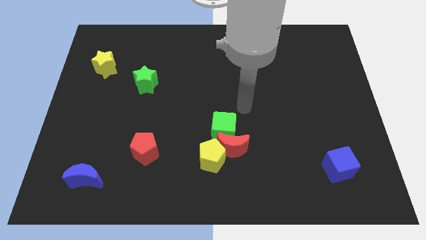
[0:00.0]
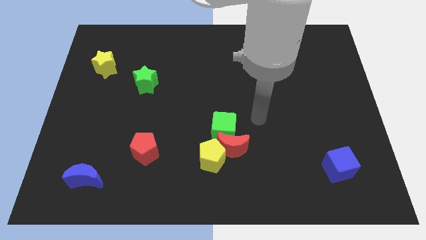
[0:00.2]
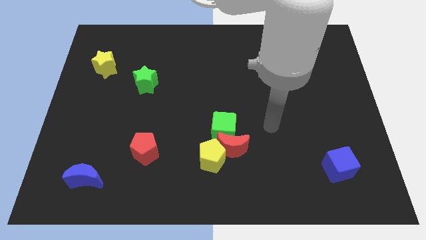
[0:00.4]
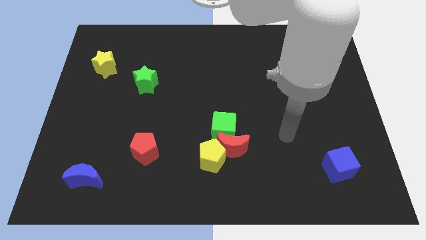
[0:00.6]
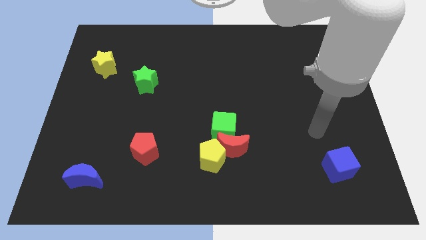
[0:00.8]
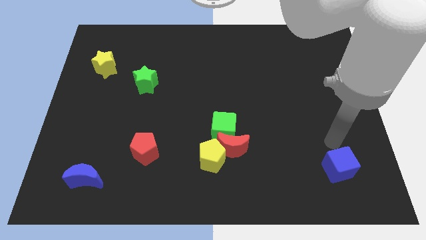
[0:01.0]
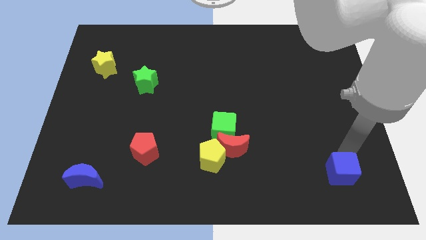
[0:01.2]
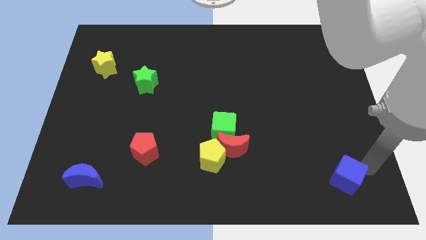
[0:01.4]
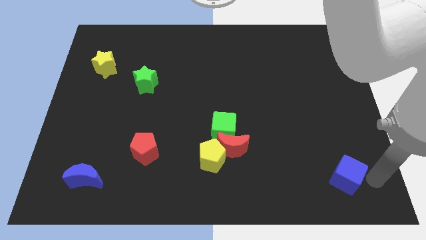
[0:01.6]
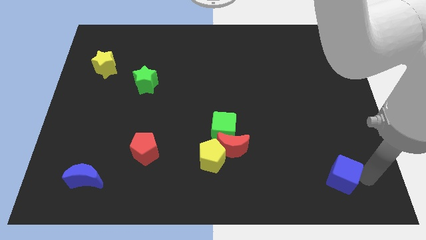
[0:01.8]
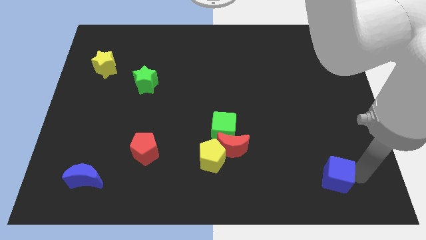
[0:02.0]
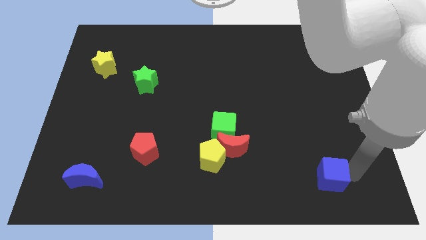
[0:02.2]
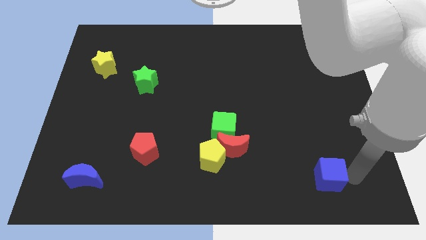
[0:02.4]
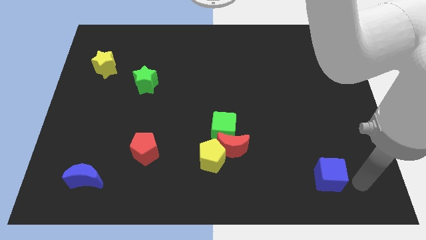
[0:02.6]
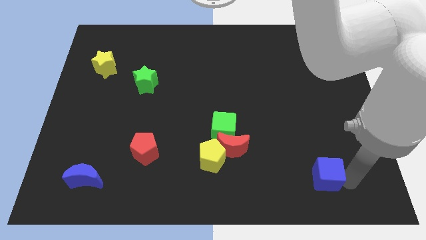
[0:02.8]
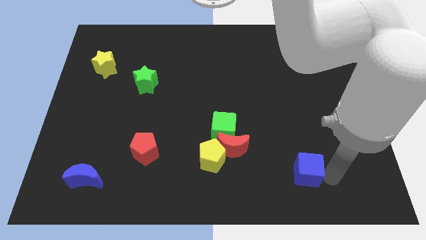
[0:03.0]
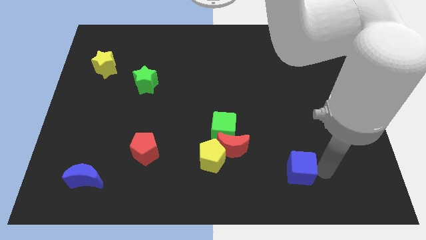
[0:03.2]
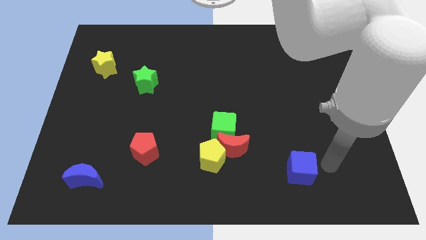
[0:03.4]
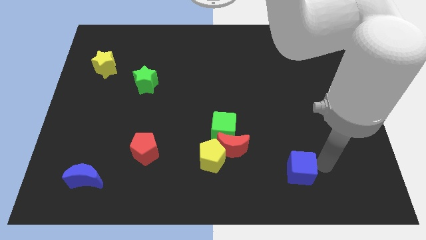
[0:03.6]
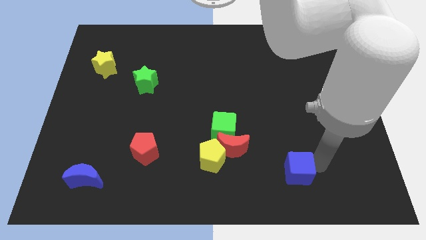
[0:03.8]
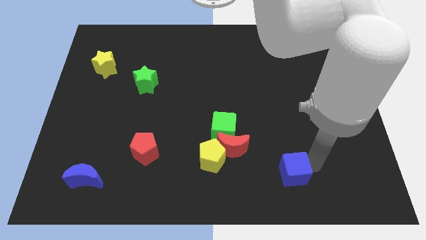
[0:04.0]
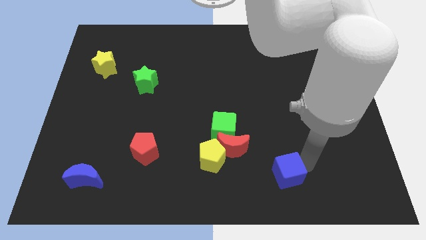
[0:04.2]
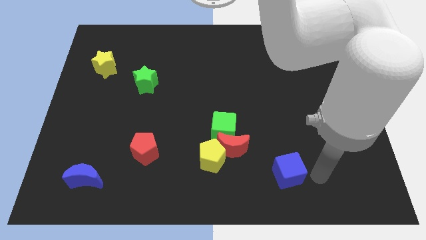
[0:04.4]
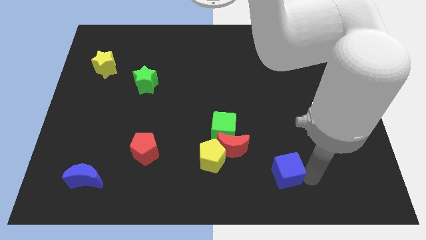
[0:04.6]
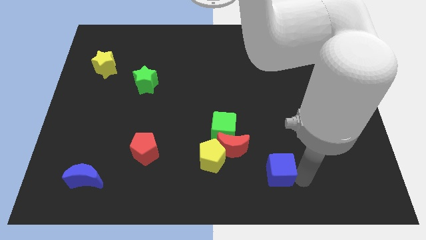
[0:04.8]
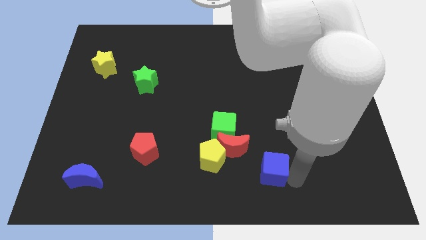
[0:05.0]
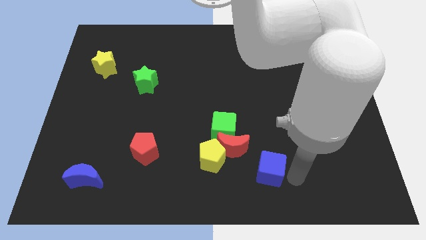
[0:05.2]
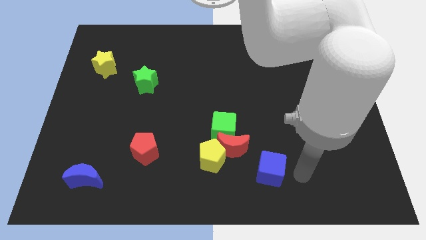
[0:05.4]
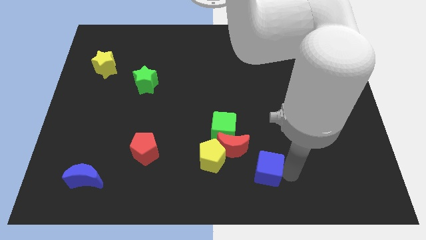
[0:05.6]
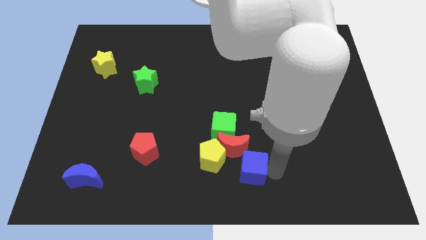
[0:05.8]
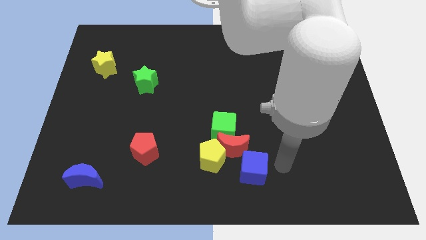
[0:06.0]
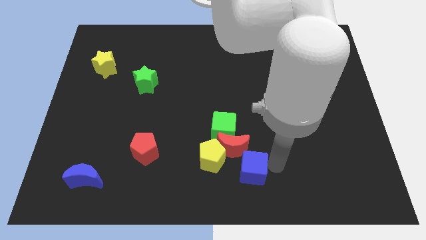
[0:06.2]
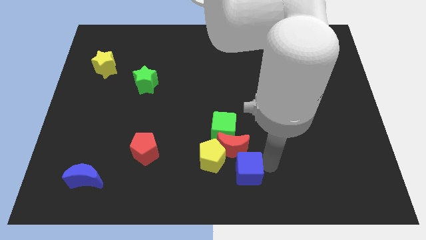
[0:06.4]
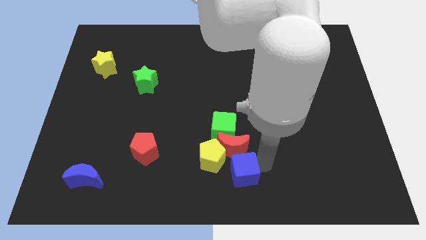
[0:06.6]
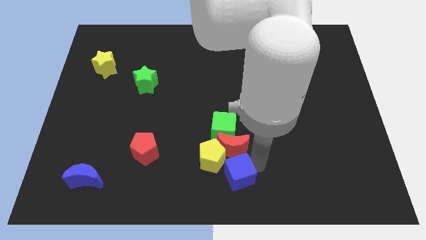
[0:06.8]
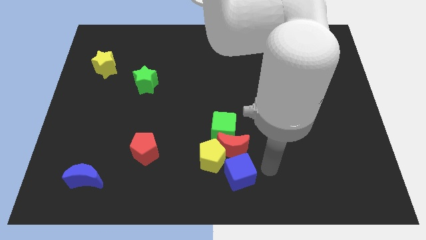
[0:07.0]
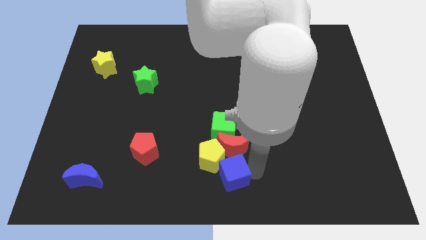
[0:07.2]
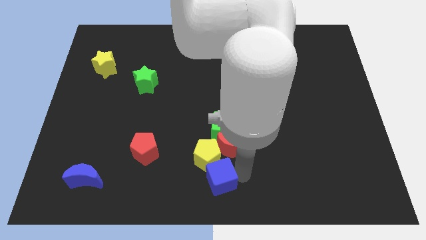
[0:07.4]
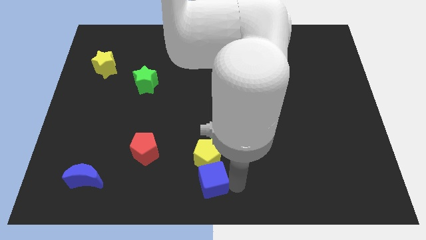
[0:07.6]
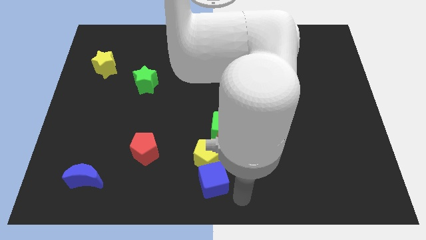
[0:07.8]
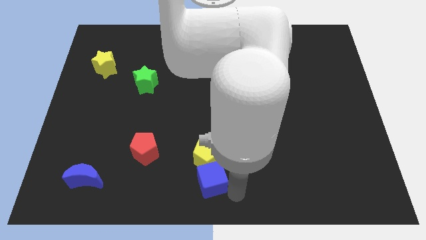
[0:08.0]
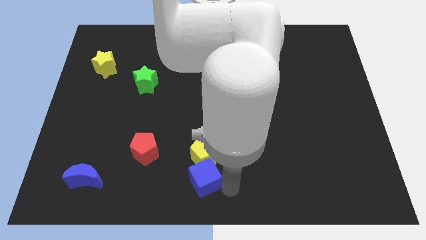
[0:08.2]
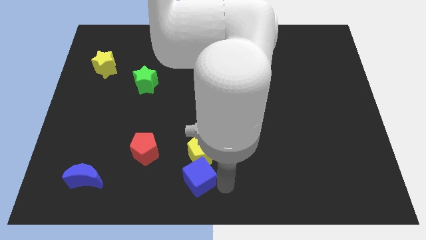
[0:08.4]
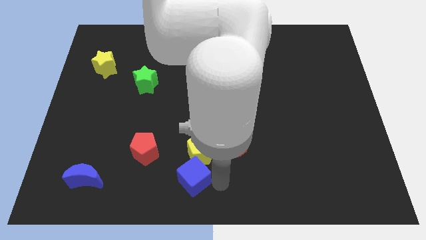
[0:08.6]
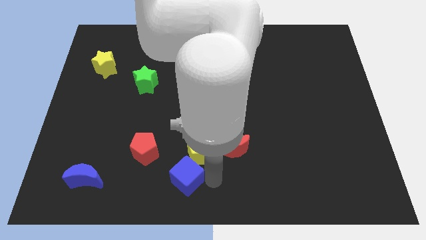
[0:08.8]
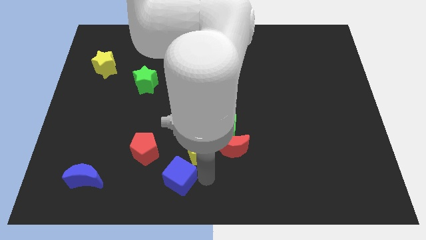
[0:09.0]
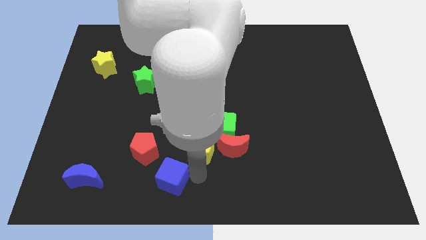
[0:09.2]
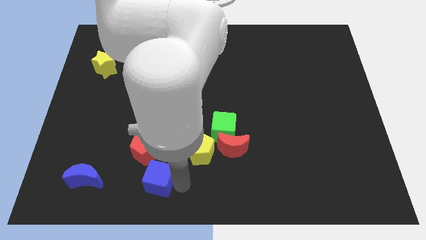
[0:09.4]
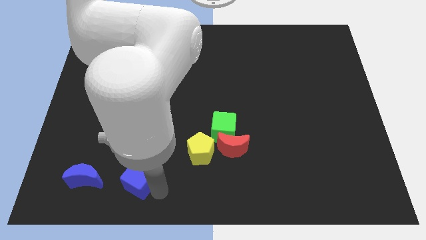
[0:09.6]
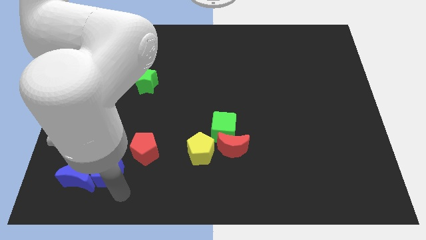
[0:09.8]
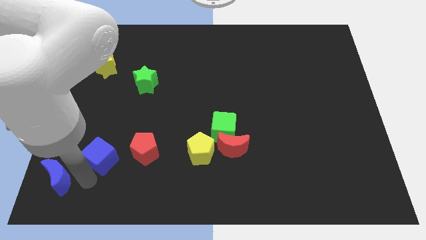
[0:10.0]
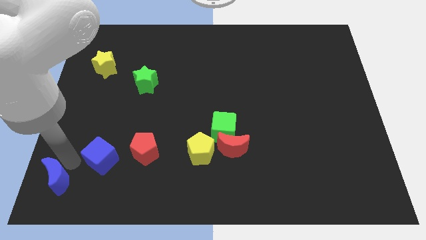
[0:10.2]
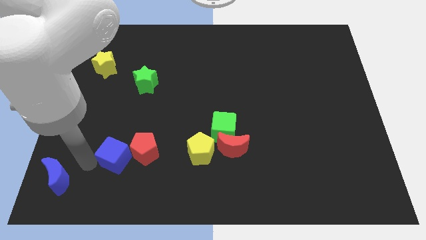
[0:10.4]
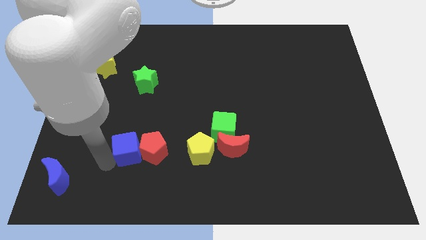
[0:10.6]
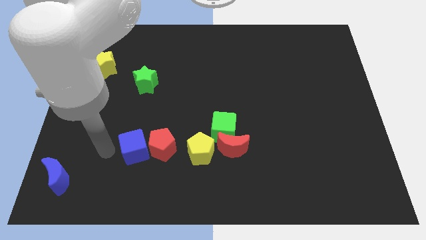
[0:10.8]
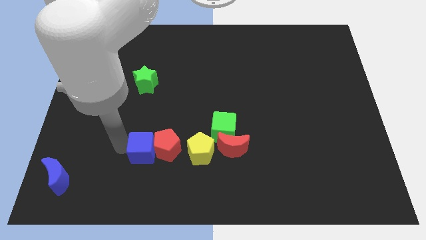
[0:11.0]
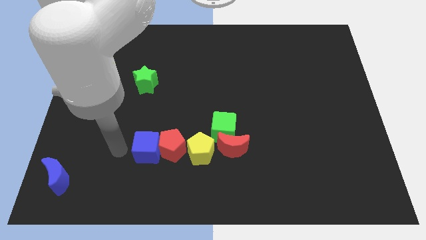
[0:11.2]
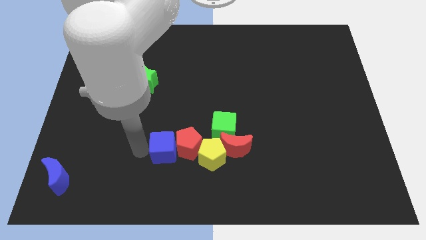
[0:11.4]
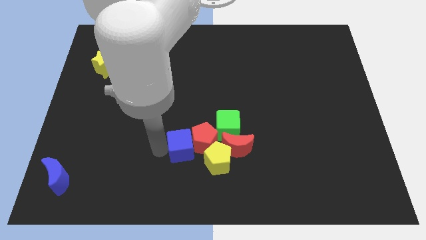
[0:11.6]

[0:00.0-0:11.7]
slide the blue cube to the bottom left of the green cube

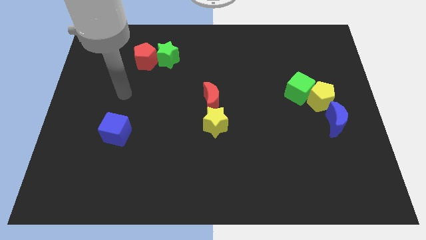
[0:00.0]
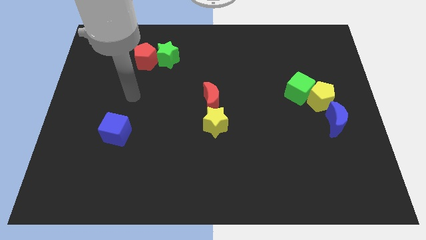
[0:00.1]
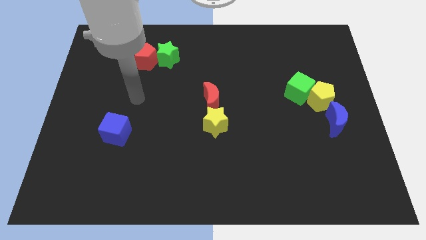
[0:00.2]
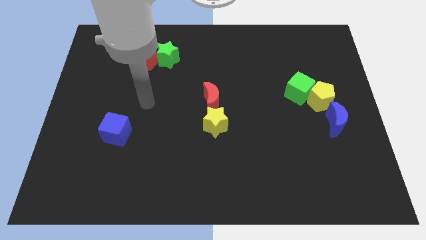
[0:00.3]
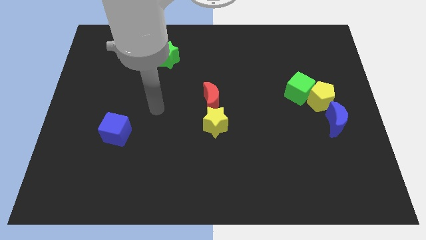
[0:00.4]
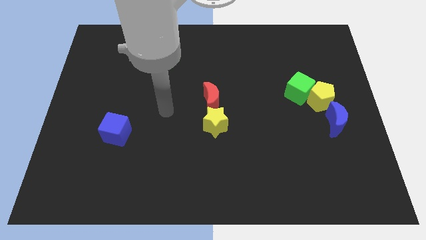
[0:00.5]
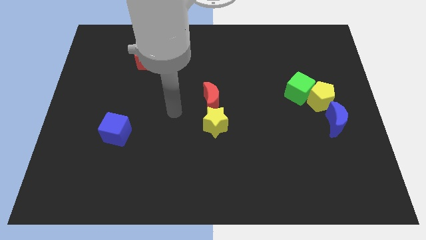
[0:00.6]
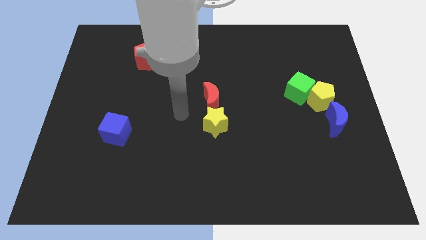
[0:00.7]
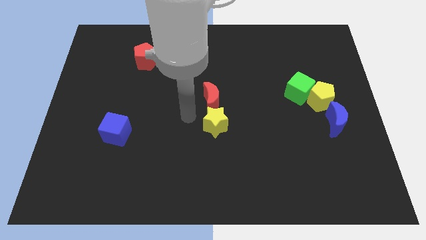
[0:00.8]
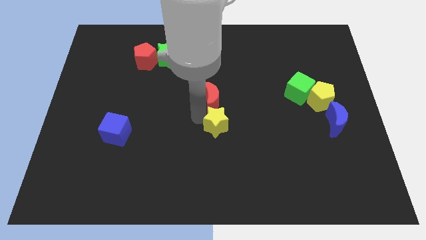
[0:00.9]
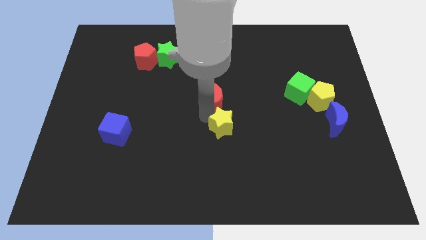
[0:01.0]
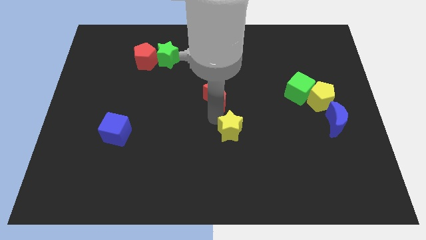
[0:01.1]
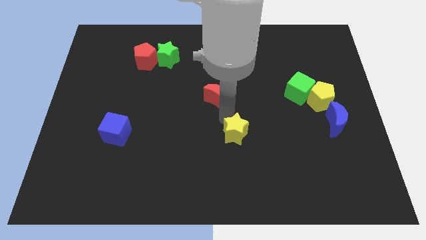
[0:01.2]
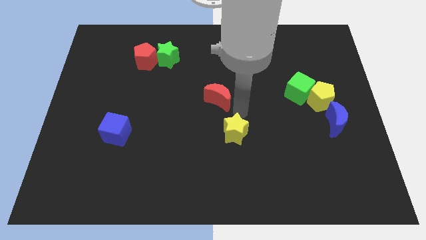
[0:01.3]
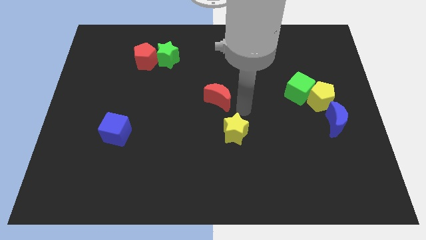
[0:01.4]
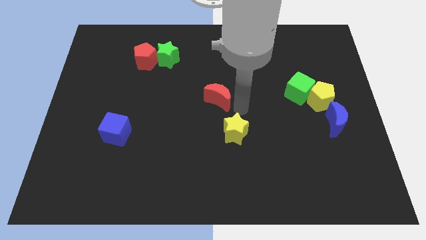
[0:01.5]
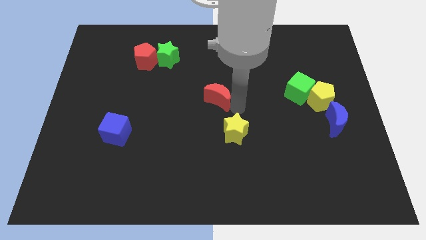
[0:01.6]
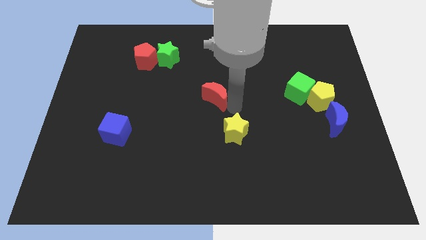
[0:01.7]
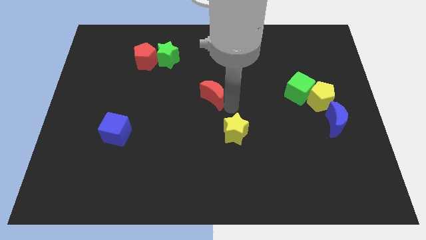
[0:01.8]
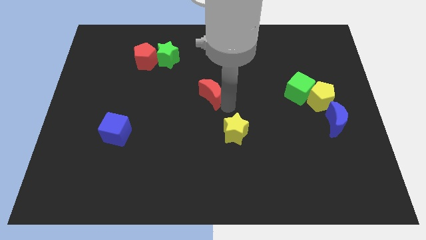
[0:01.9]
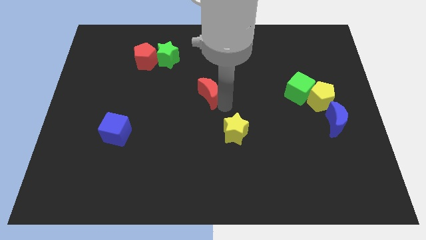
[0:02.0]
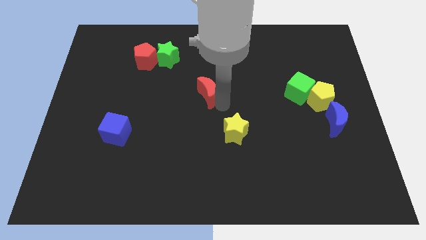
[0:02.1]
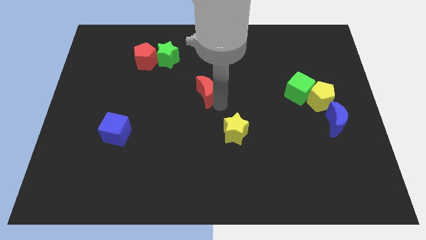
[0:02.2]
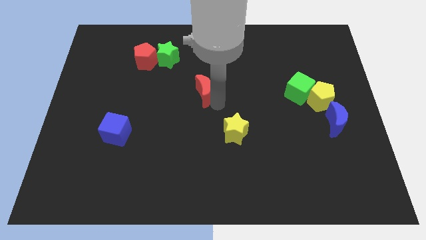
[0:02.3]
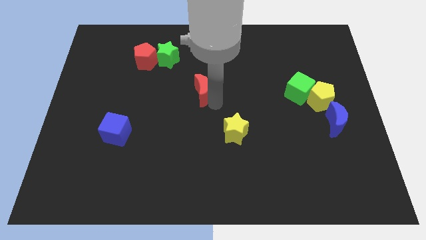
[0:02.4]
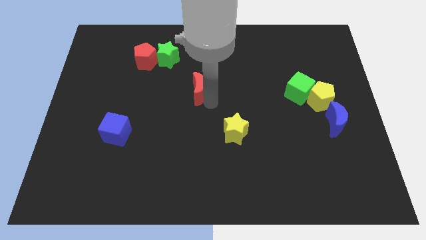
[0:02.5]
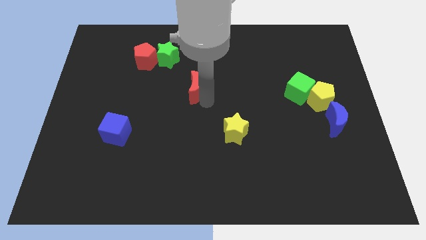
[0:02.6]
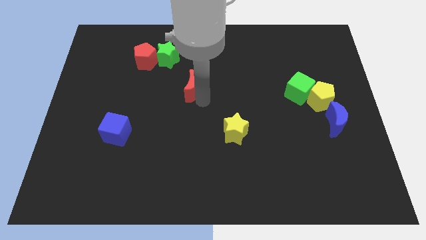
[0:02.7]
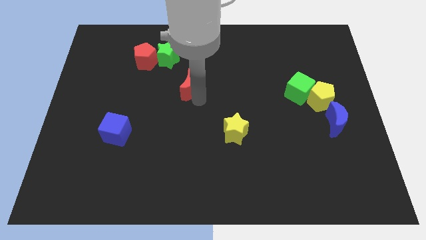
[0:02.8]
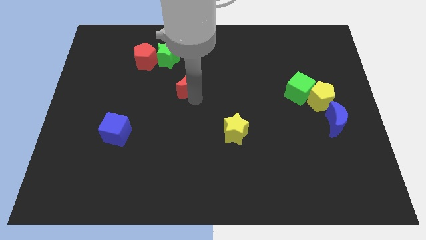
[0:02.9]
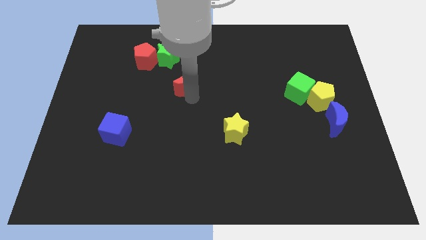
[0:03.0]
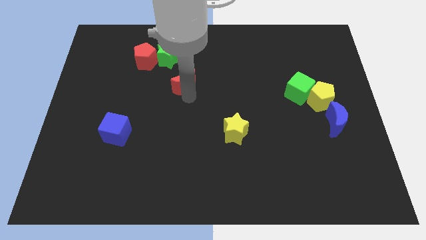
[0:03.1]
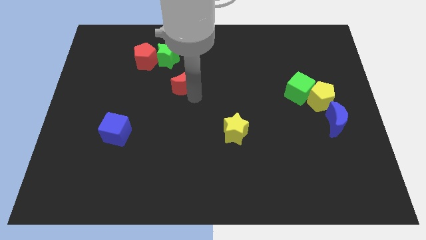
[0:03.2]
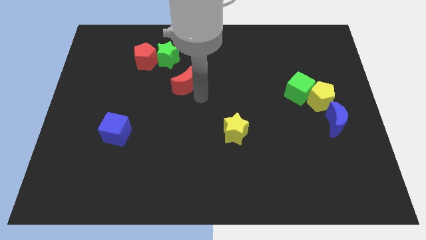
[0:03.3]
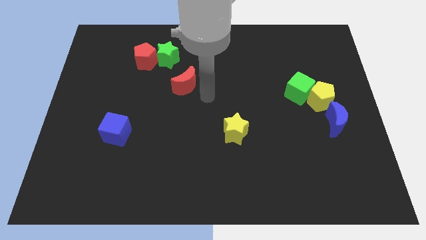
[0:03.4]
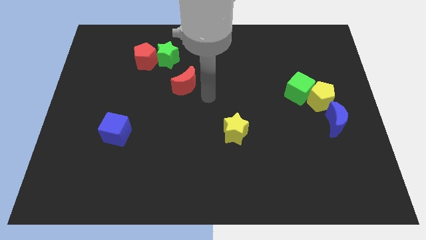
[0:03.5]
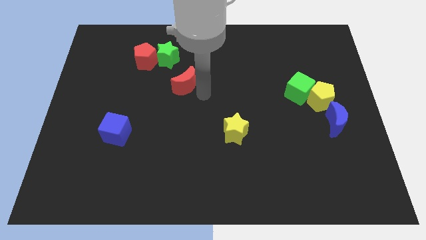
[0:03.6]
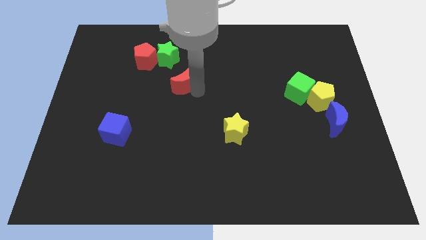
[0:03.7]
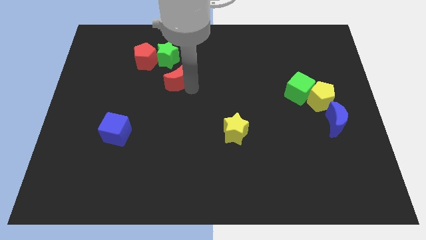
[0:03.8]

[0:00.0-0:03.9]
slide the red moon to the bottom right side of the red pentagon
